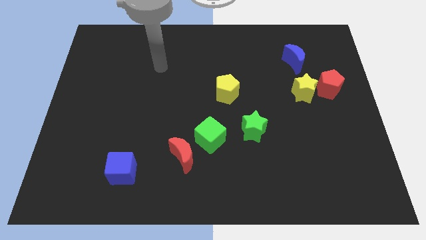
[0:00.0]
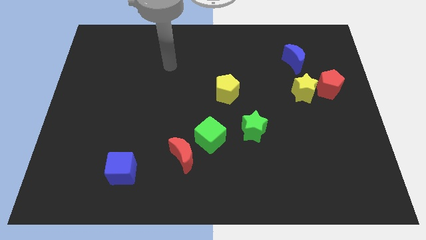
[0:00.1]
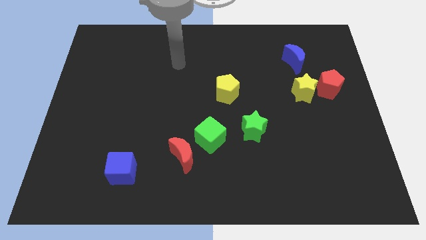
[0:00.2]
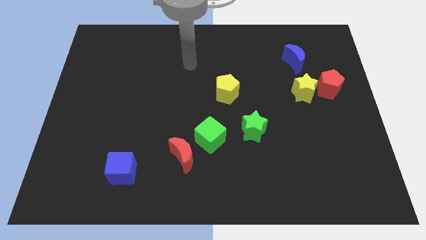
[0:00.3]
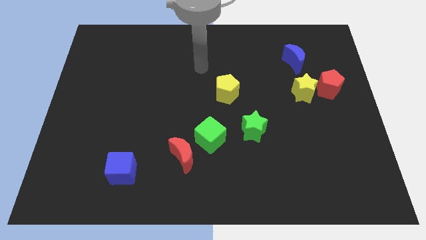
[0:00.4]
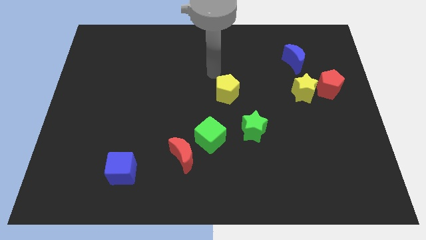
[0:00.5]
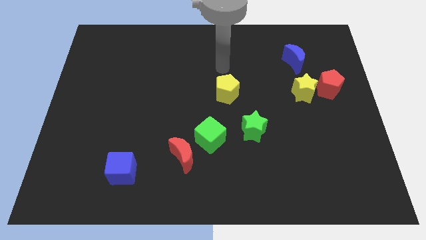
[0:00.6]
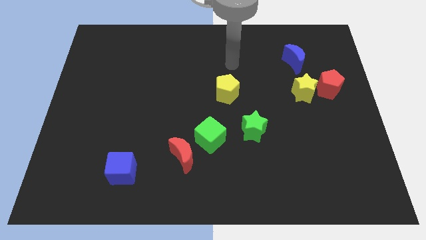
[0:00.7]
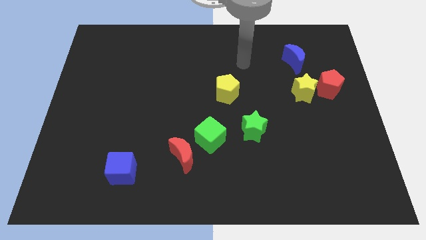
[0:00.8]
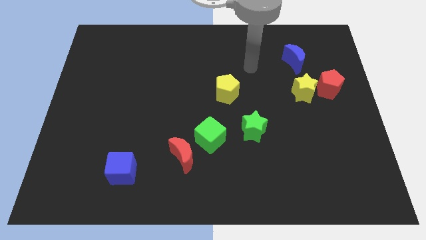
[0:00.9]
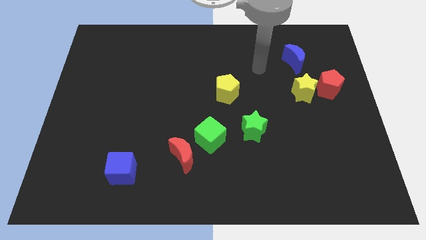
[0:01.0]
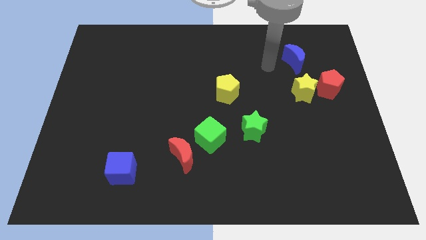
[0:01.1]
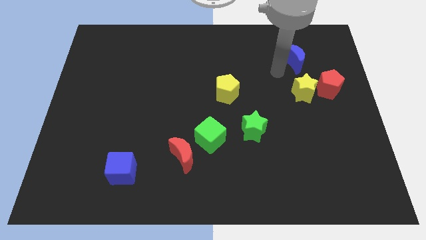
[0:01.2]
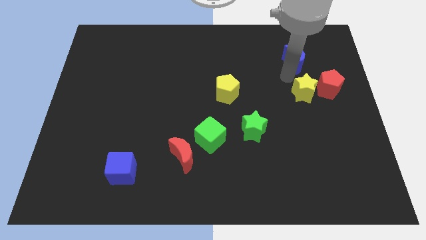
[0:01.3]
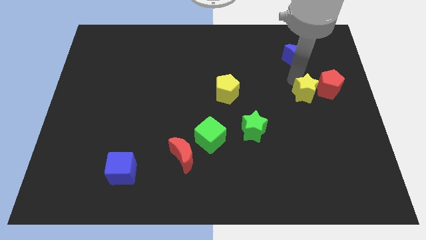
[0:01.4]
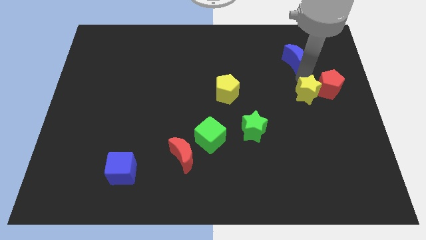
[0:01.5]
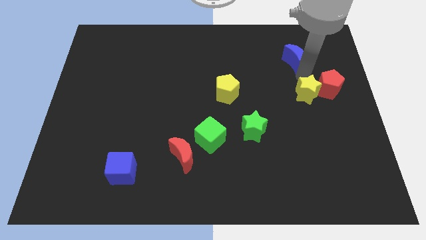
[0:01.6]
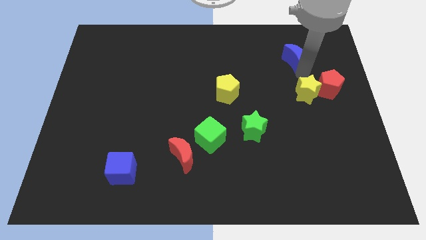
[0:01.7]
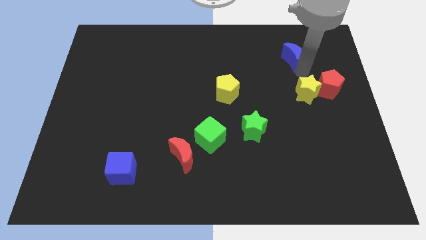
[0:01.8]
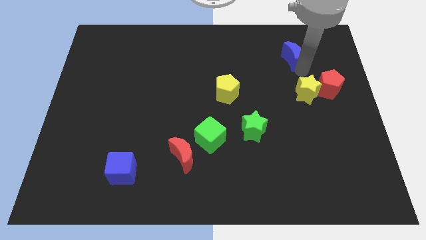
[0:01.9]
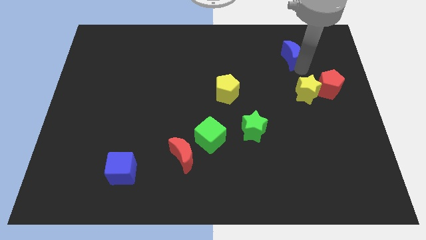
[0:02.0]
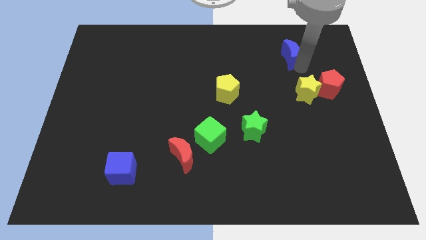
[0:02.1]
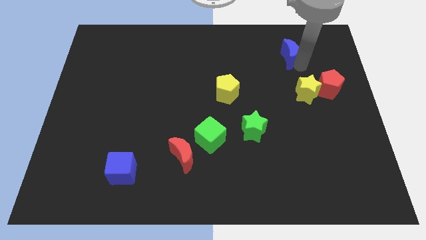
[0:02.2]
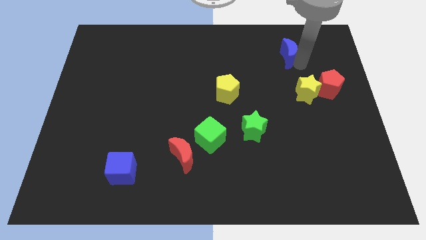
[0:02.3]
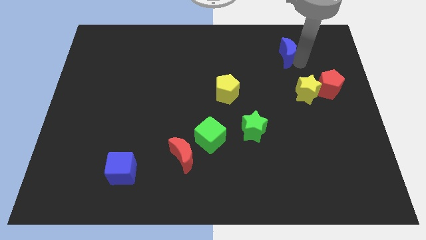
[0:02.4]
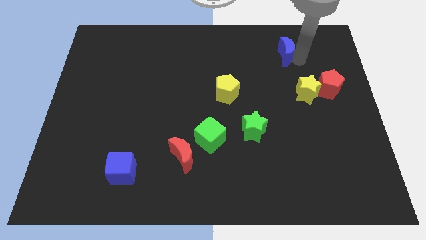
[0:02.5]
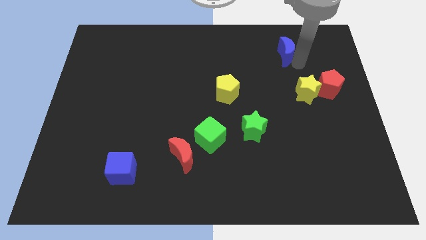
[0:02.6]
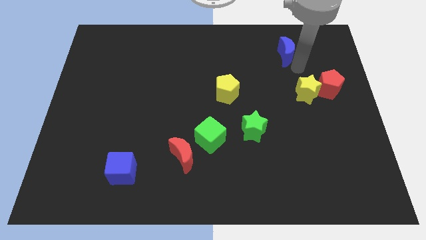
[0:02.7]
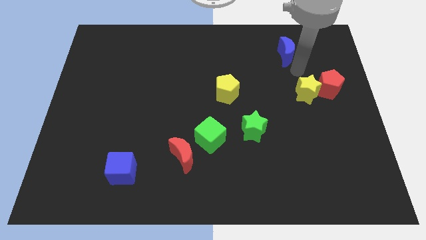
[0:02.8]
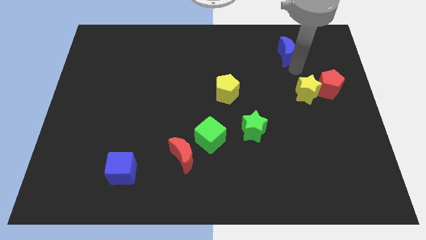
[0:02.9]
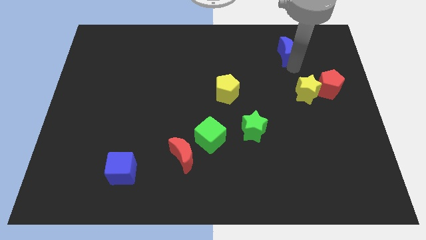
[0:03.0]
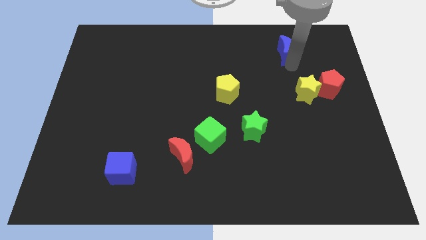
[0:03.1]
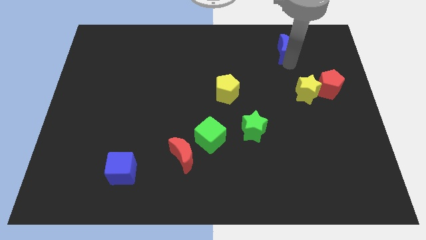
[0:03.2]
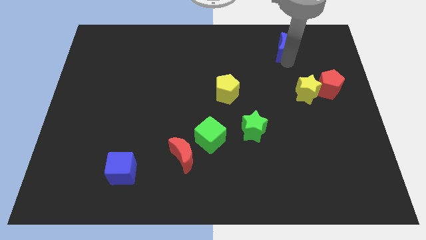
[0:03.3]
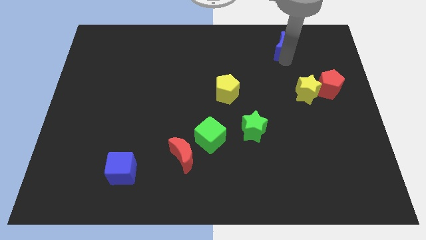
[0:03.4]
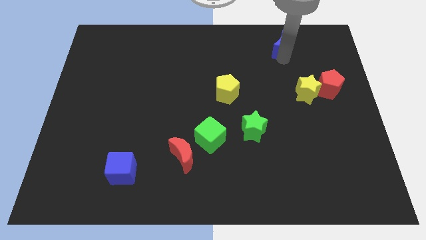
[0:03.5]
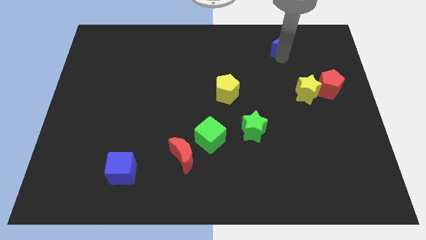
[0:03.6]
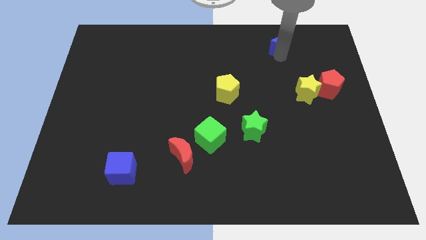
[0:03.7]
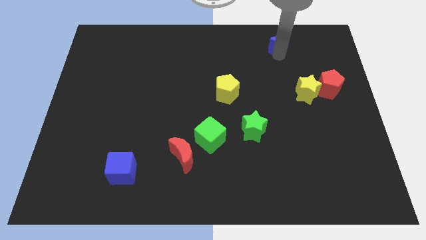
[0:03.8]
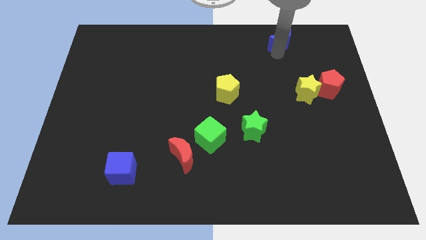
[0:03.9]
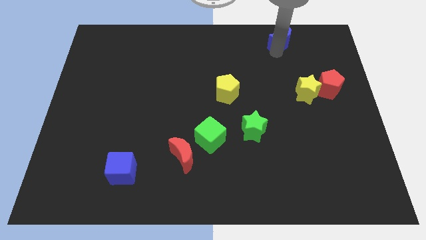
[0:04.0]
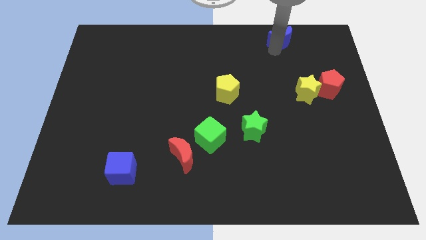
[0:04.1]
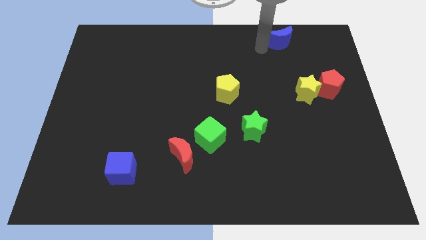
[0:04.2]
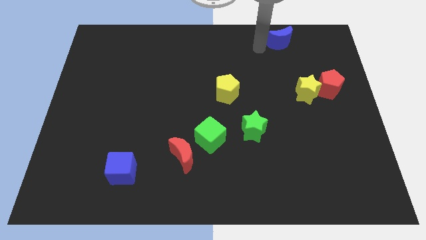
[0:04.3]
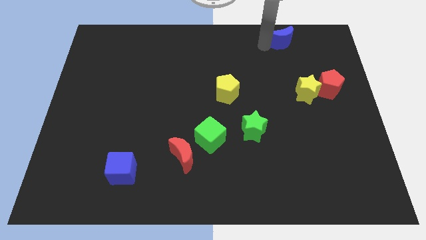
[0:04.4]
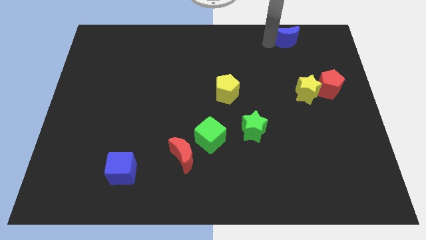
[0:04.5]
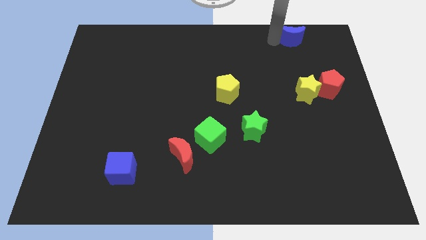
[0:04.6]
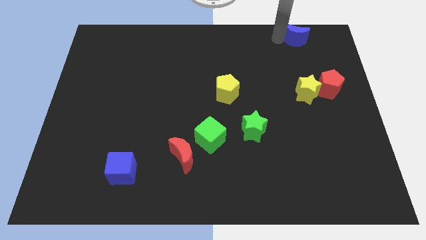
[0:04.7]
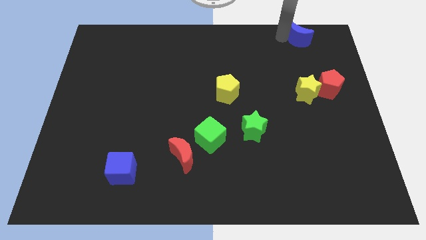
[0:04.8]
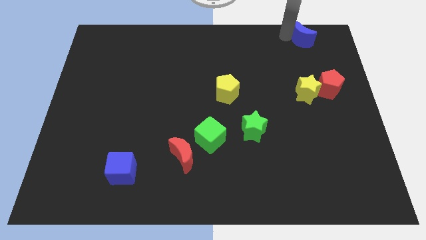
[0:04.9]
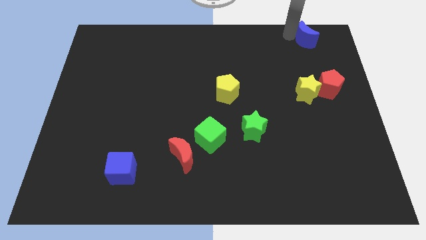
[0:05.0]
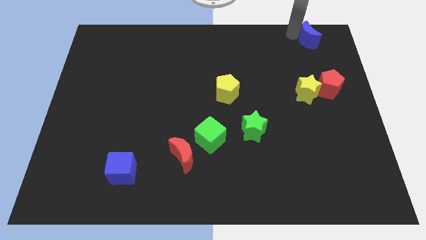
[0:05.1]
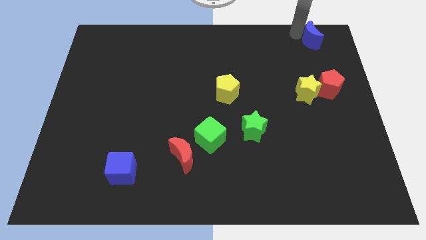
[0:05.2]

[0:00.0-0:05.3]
slide the blue moon to the top right of the board

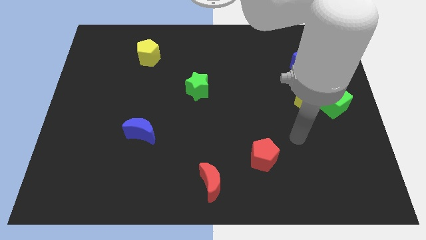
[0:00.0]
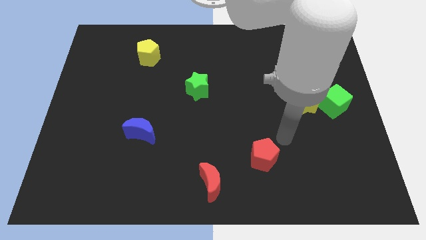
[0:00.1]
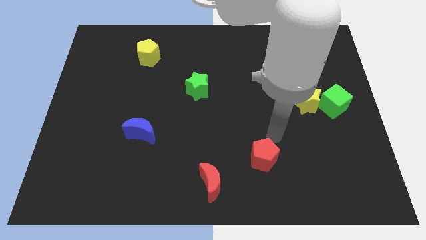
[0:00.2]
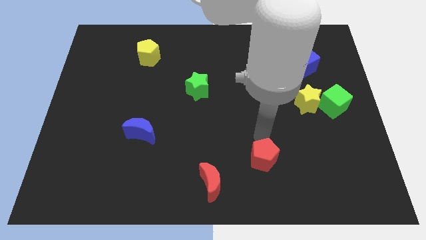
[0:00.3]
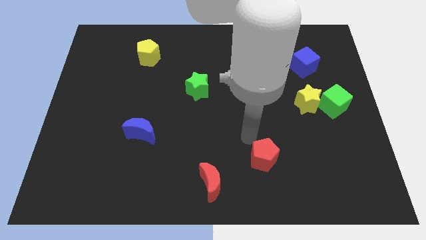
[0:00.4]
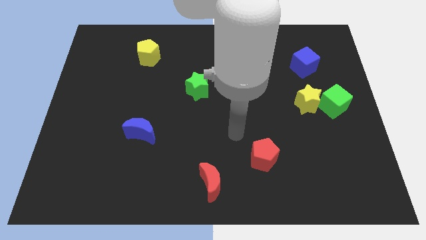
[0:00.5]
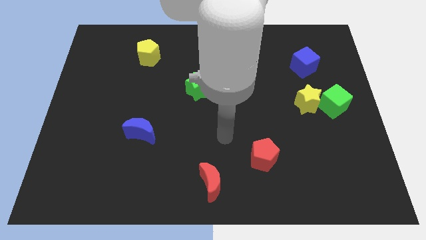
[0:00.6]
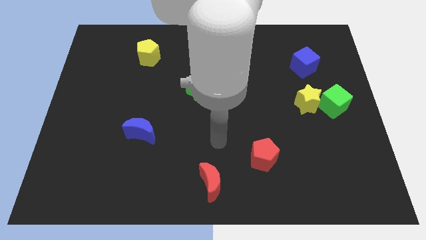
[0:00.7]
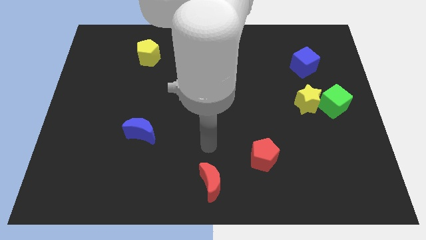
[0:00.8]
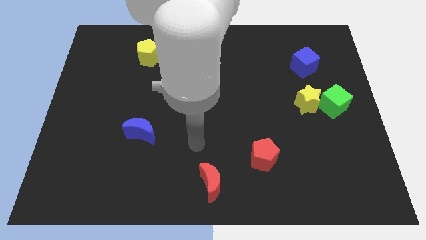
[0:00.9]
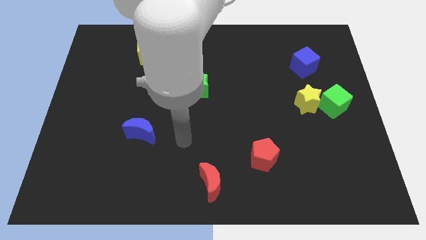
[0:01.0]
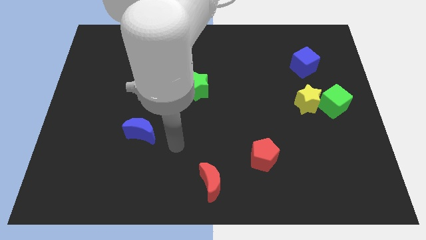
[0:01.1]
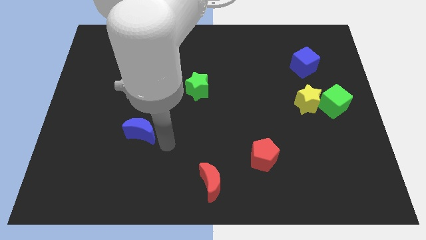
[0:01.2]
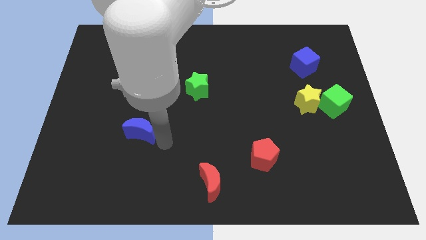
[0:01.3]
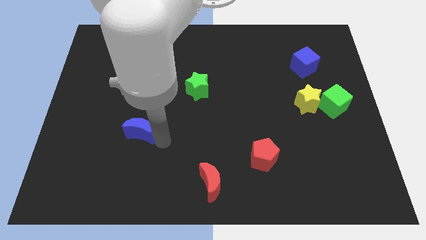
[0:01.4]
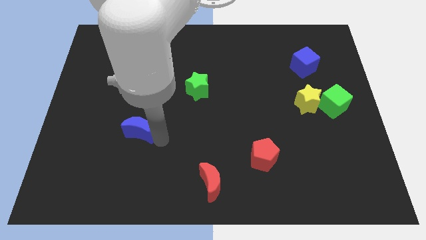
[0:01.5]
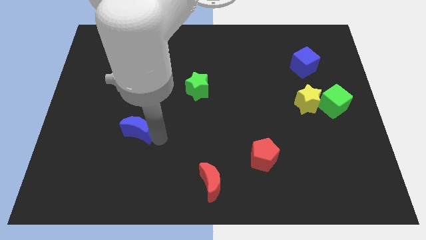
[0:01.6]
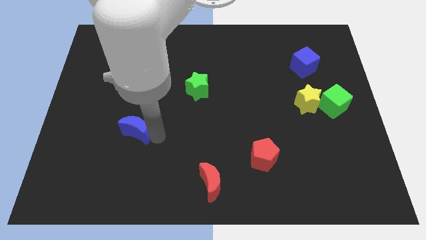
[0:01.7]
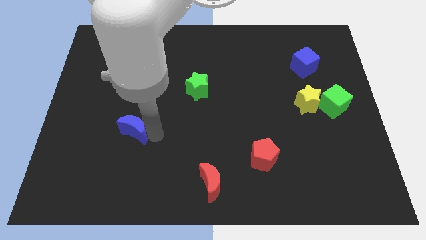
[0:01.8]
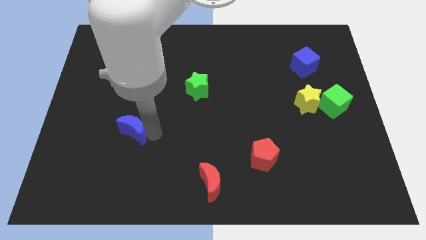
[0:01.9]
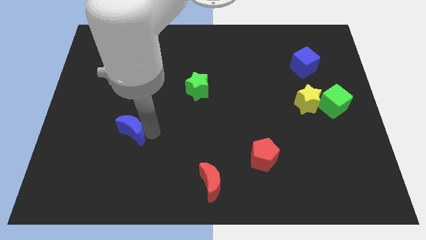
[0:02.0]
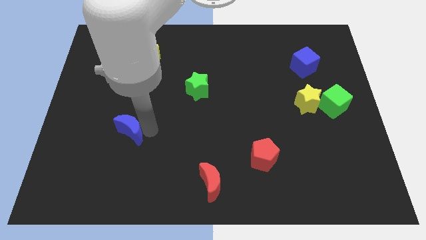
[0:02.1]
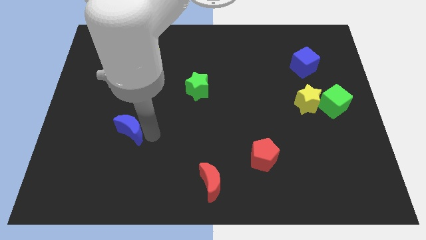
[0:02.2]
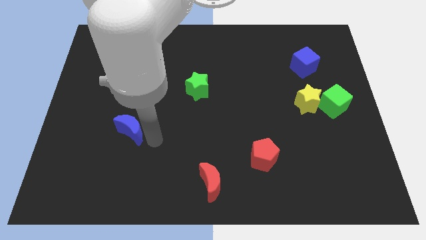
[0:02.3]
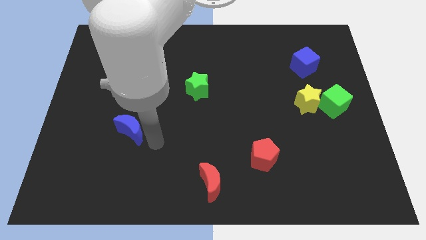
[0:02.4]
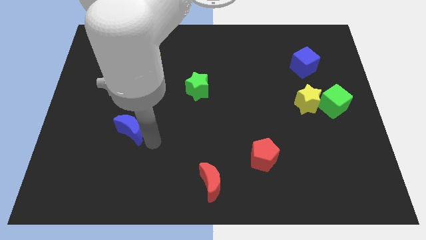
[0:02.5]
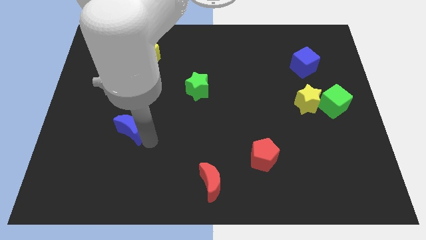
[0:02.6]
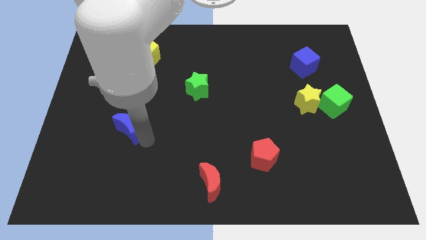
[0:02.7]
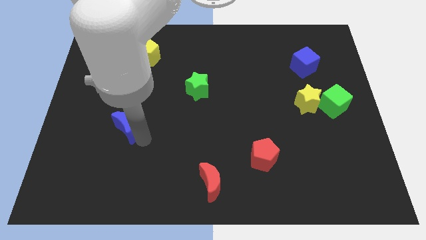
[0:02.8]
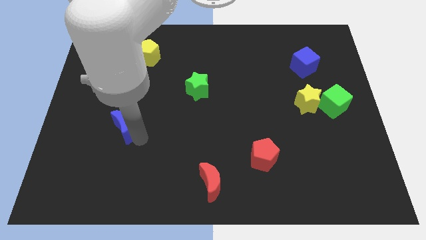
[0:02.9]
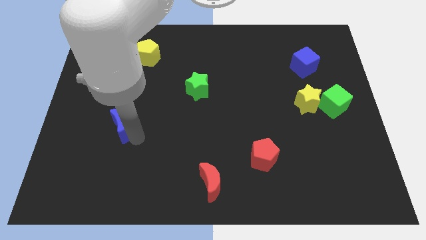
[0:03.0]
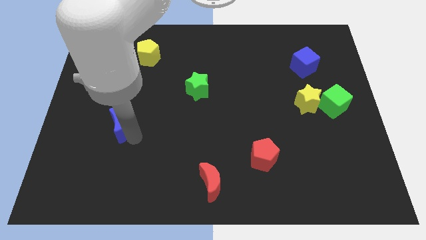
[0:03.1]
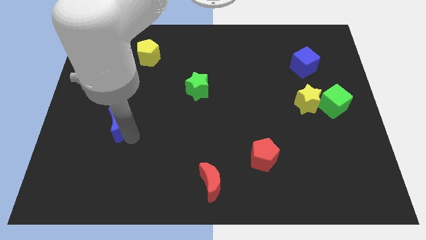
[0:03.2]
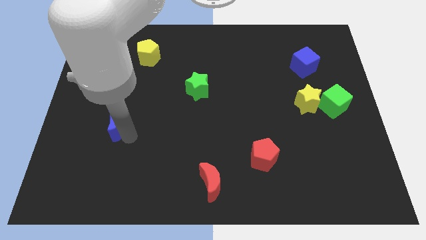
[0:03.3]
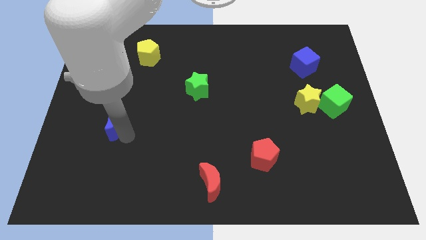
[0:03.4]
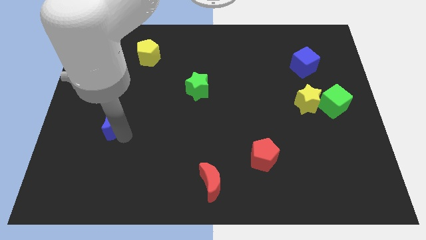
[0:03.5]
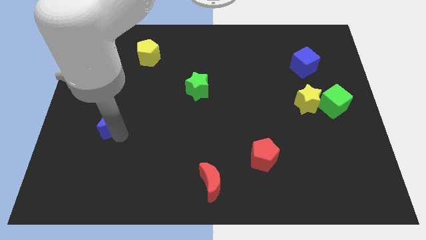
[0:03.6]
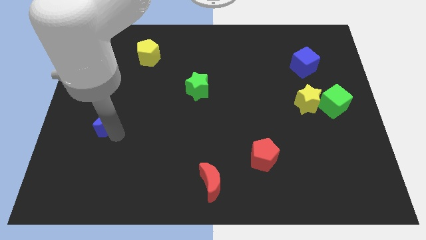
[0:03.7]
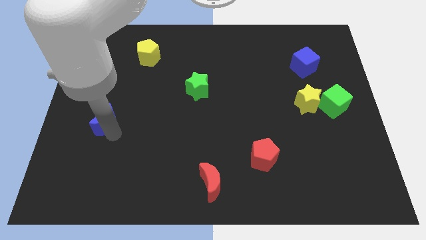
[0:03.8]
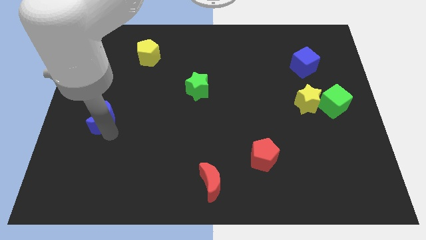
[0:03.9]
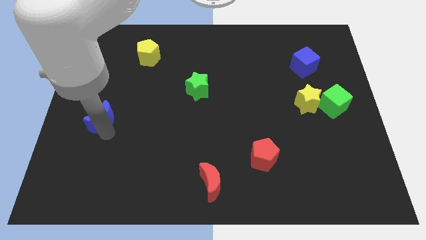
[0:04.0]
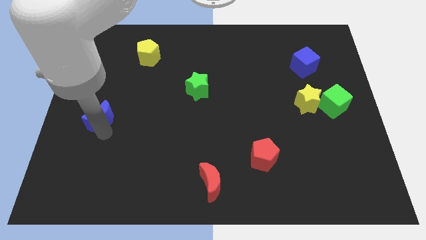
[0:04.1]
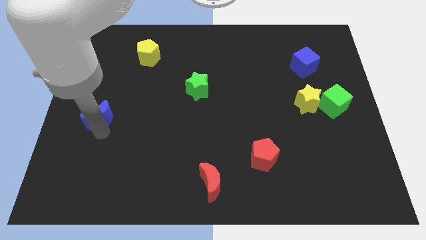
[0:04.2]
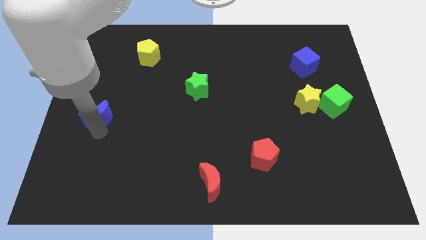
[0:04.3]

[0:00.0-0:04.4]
push the blue moon to the left side of the board
